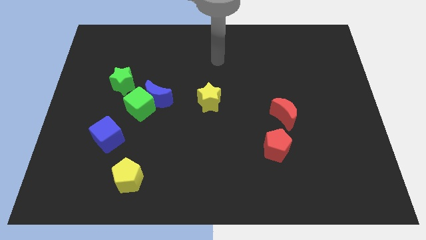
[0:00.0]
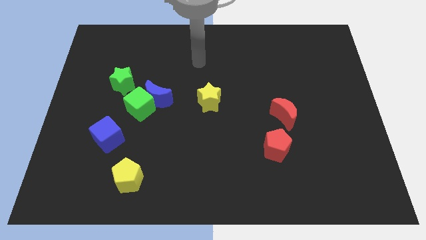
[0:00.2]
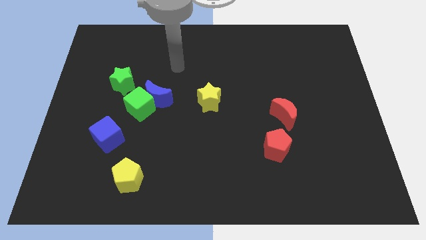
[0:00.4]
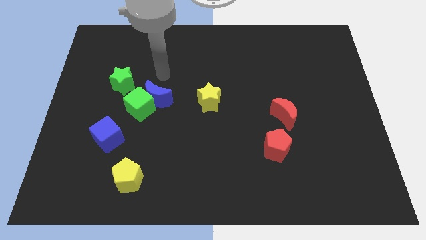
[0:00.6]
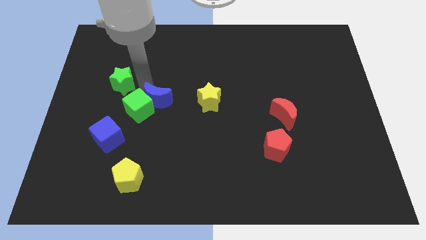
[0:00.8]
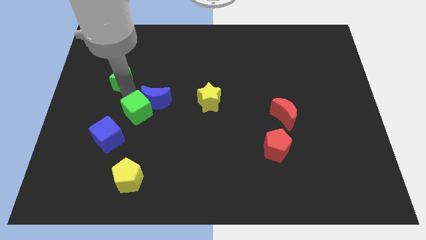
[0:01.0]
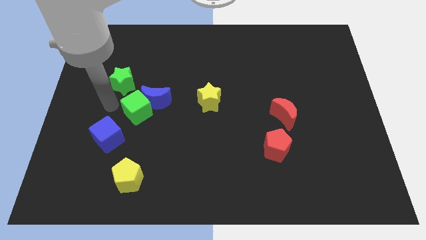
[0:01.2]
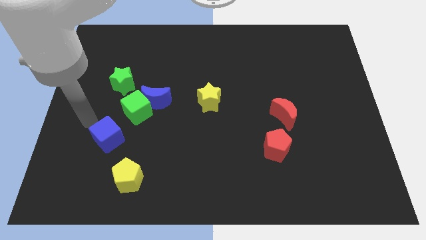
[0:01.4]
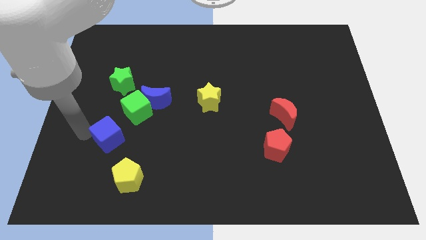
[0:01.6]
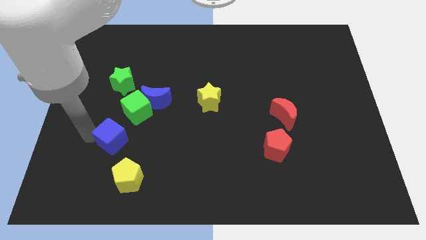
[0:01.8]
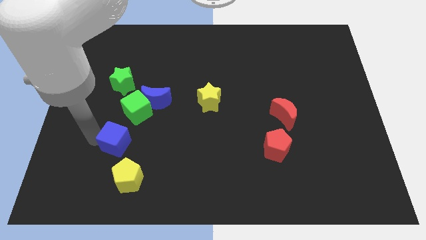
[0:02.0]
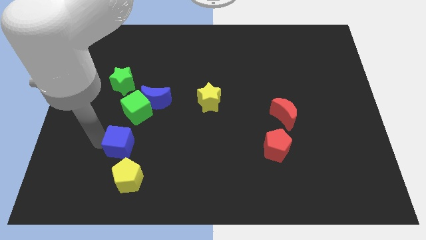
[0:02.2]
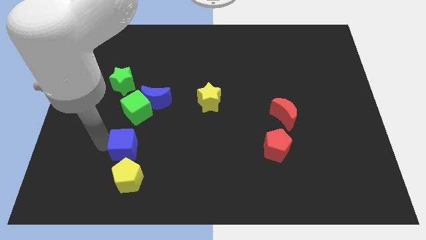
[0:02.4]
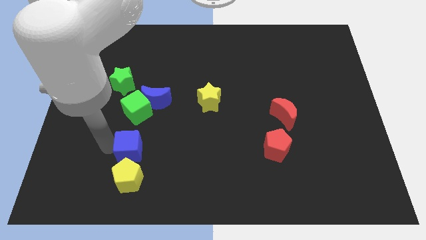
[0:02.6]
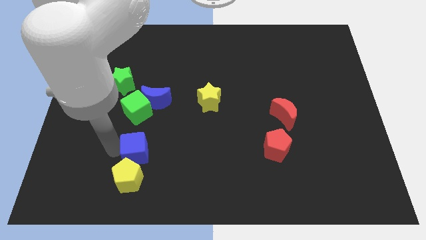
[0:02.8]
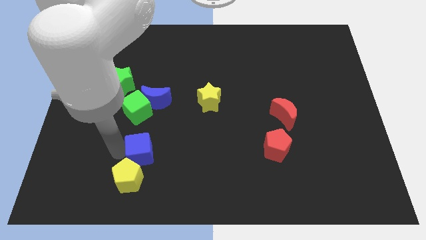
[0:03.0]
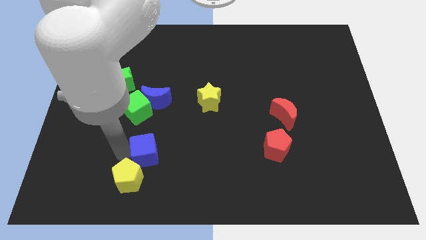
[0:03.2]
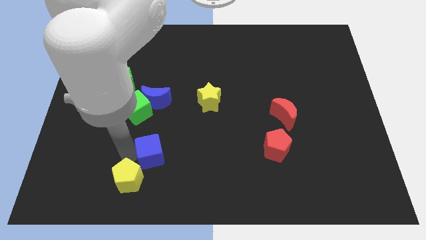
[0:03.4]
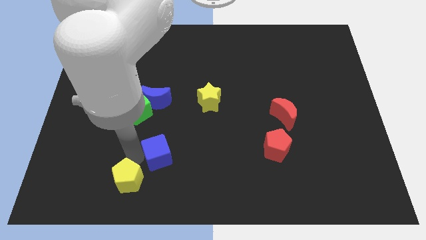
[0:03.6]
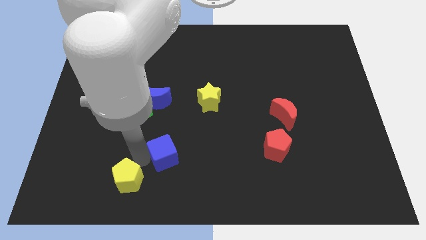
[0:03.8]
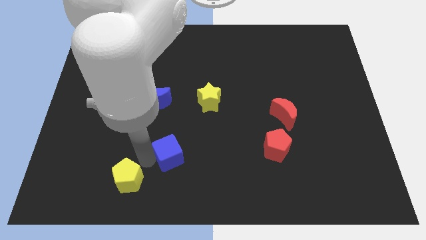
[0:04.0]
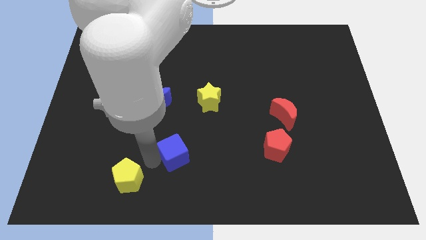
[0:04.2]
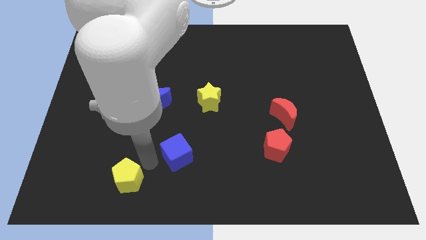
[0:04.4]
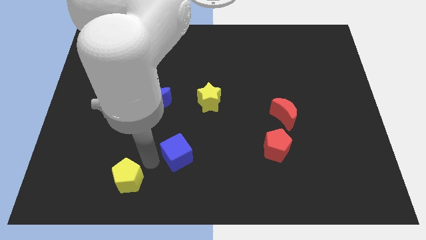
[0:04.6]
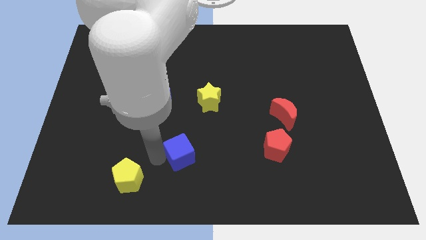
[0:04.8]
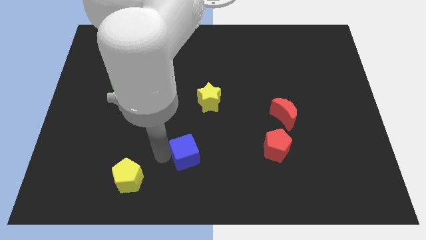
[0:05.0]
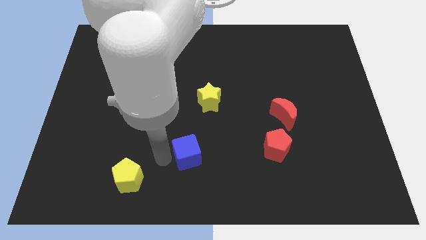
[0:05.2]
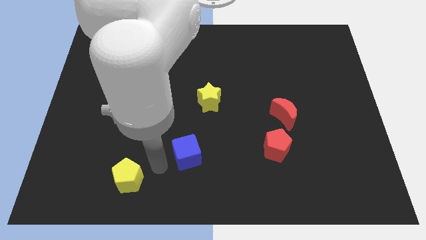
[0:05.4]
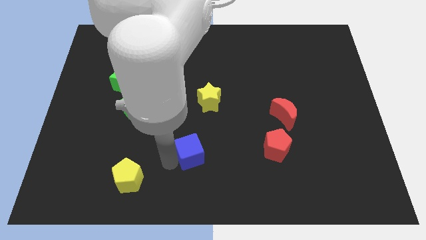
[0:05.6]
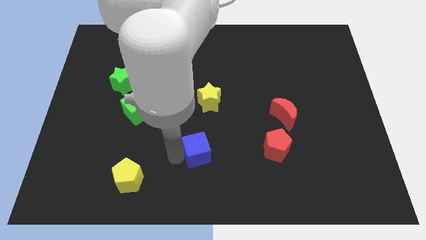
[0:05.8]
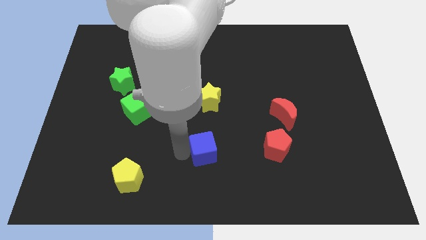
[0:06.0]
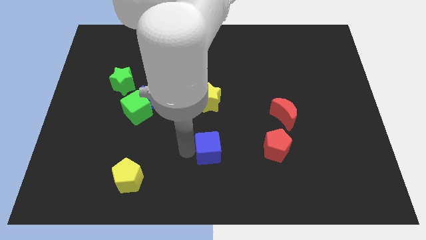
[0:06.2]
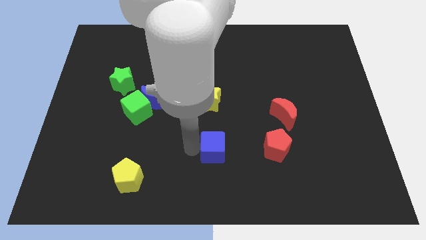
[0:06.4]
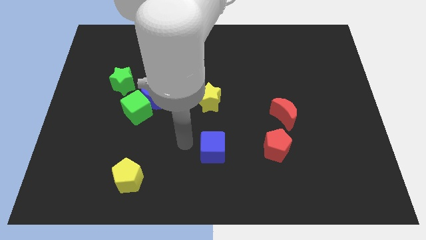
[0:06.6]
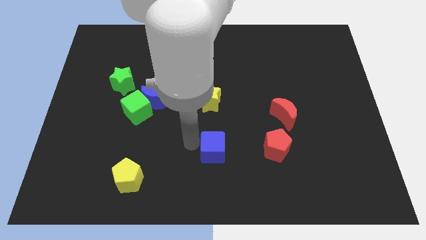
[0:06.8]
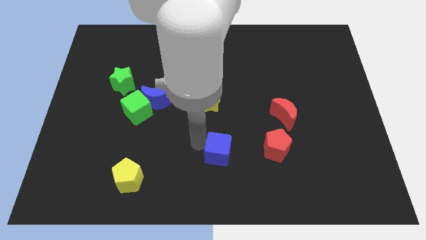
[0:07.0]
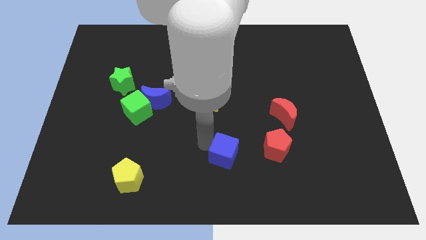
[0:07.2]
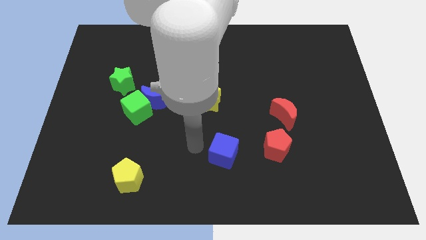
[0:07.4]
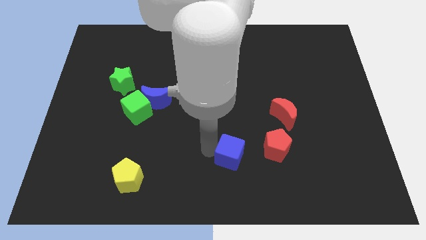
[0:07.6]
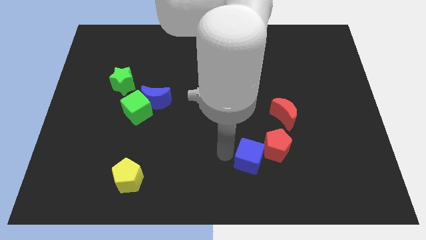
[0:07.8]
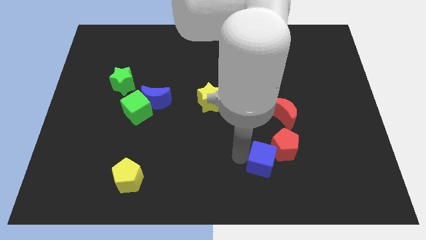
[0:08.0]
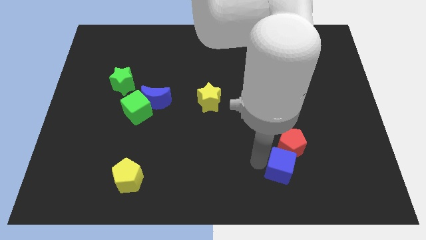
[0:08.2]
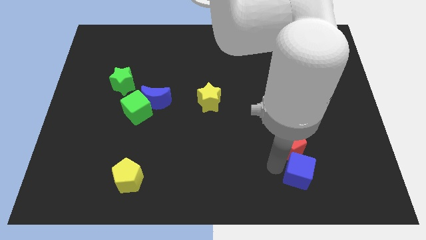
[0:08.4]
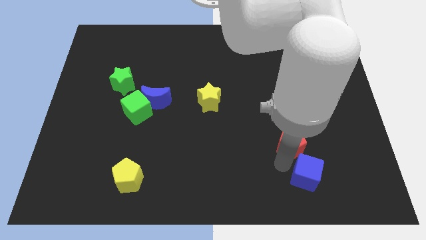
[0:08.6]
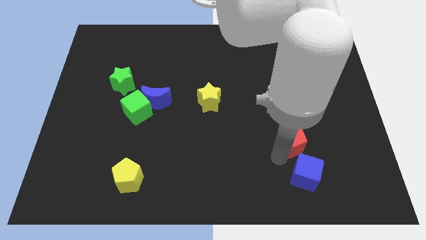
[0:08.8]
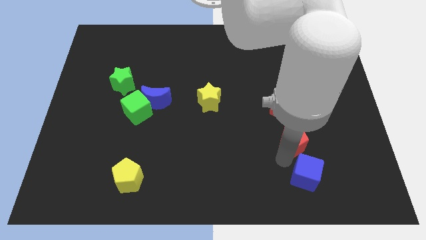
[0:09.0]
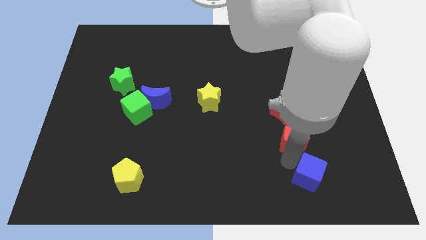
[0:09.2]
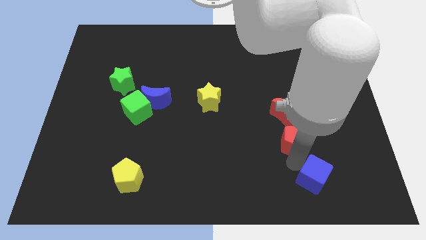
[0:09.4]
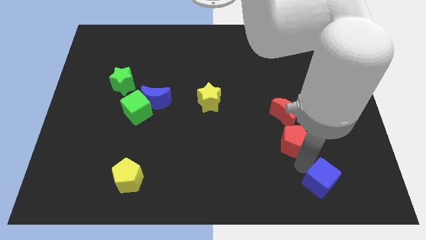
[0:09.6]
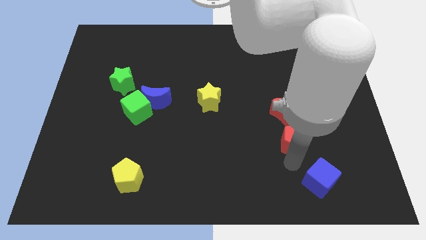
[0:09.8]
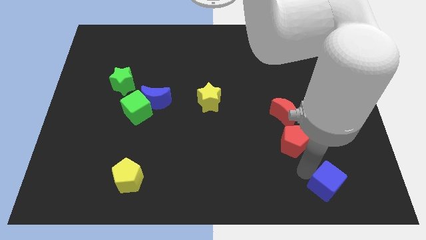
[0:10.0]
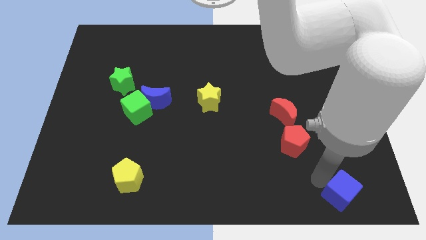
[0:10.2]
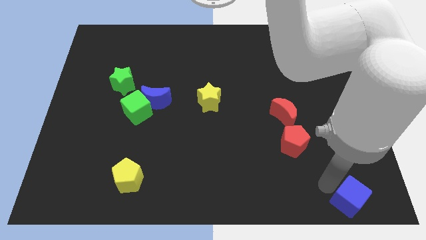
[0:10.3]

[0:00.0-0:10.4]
push the blue cube to the lower right corner

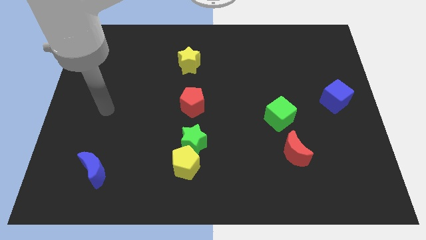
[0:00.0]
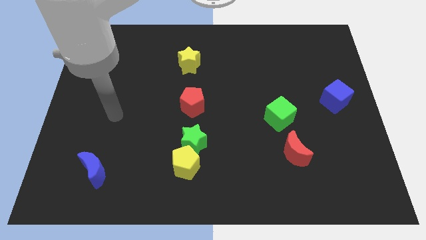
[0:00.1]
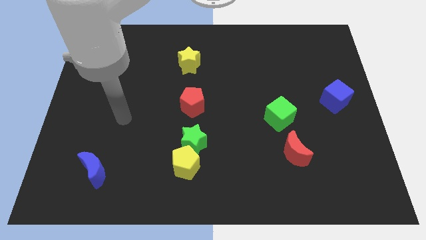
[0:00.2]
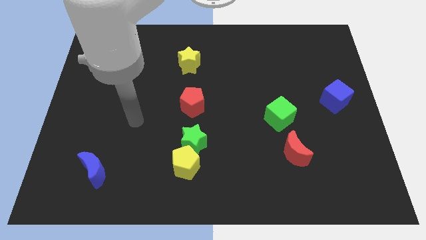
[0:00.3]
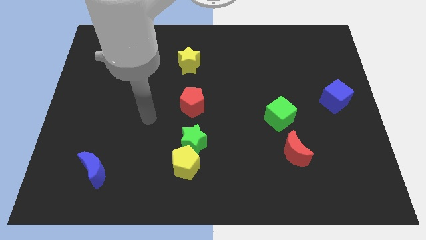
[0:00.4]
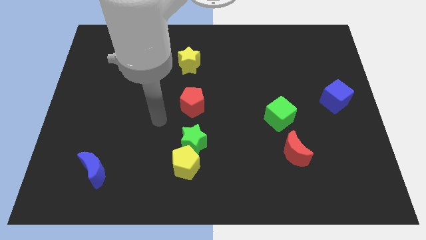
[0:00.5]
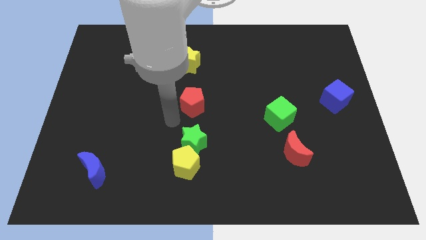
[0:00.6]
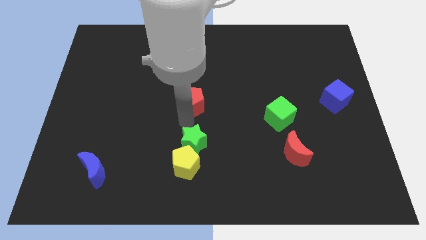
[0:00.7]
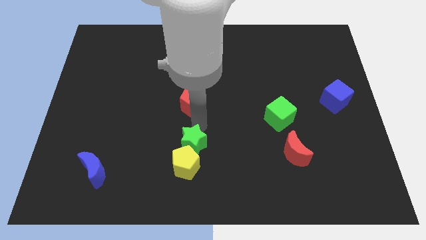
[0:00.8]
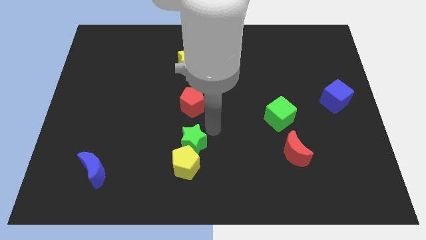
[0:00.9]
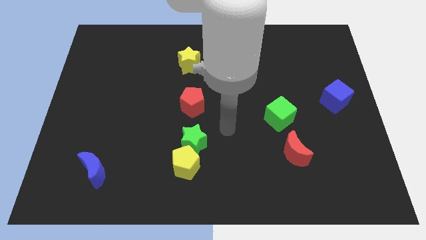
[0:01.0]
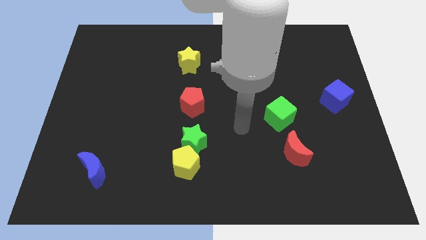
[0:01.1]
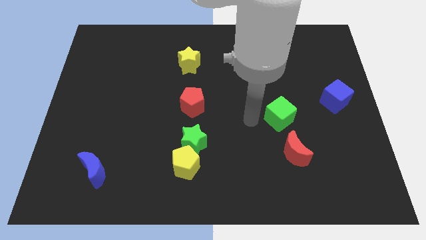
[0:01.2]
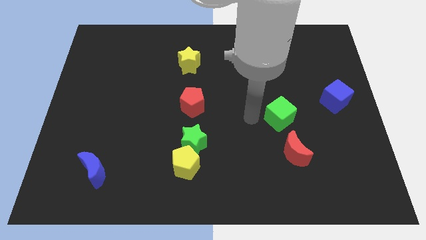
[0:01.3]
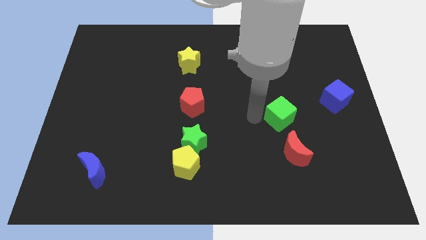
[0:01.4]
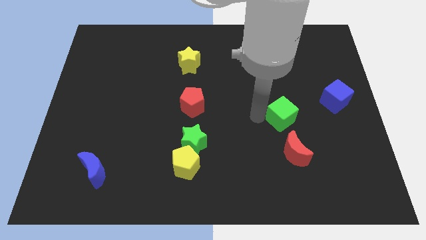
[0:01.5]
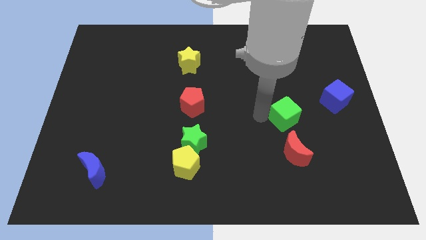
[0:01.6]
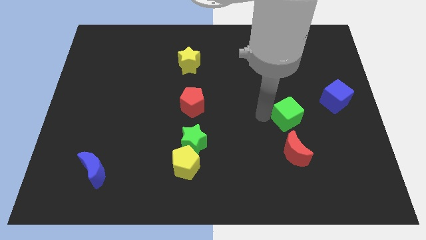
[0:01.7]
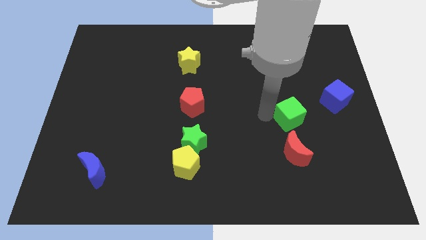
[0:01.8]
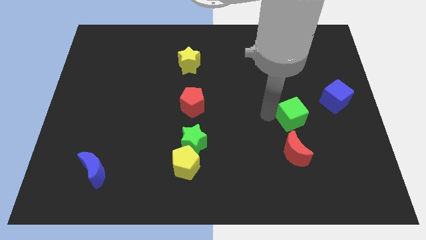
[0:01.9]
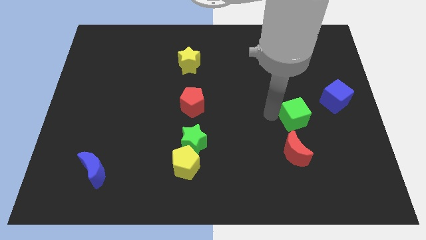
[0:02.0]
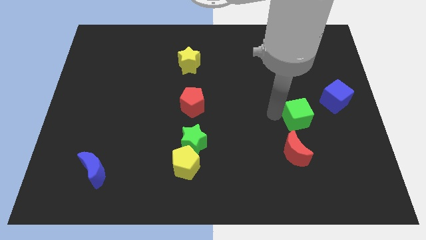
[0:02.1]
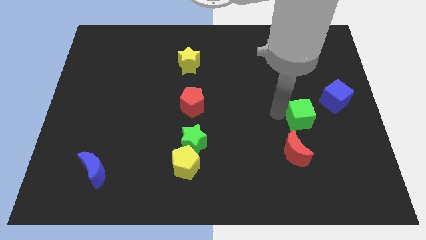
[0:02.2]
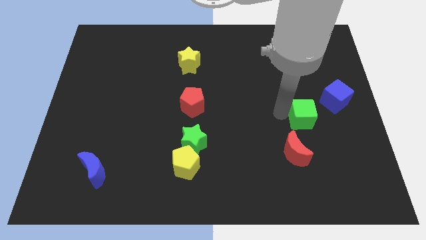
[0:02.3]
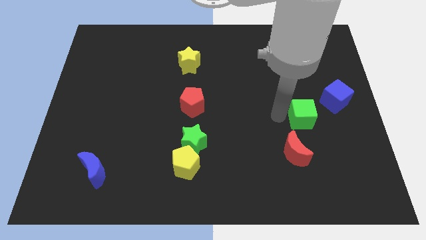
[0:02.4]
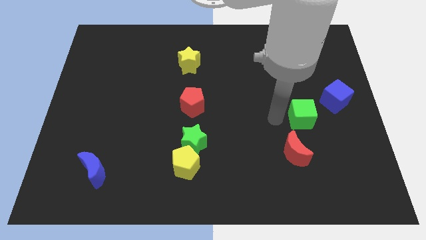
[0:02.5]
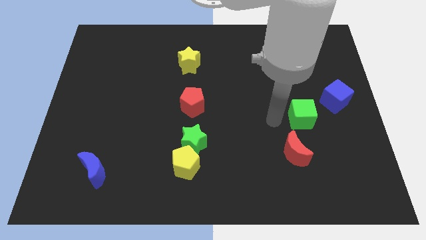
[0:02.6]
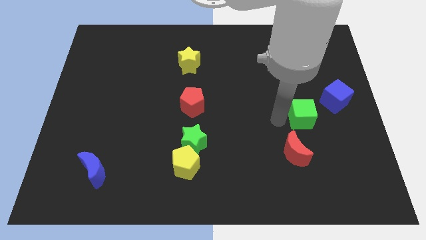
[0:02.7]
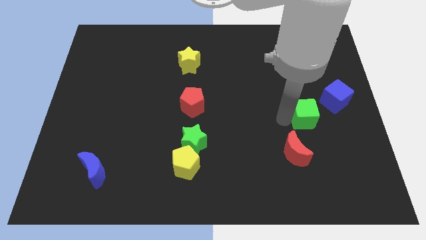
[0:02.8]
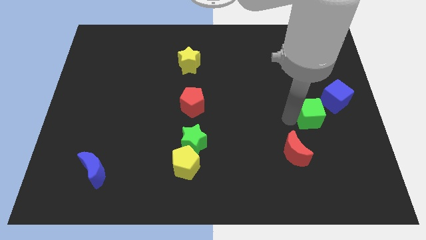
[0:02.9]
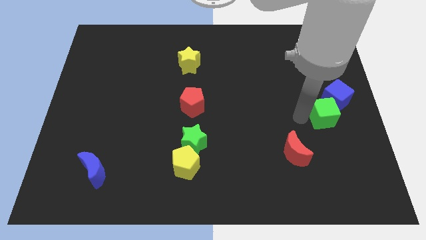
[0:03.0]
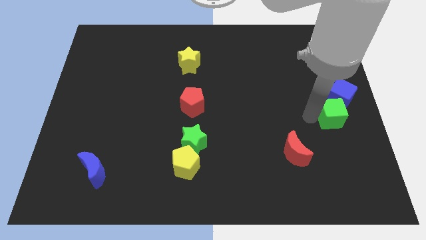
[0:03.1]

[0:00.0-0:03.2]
move the green cube to the right side of the board

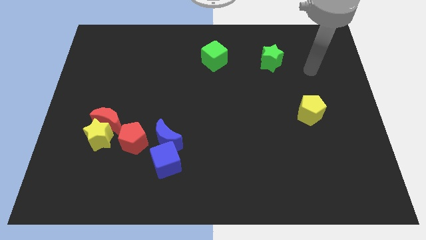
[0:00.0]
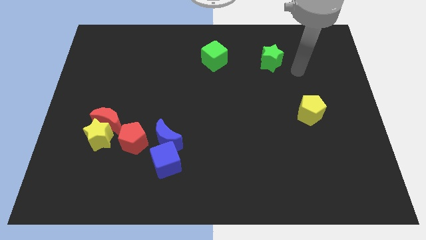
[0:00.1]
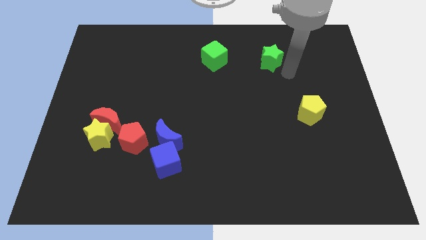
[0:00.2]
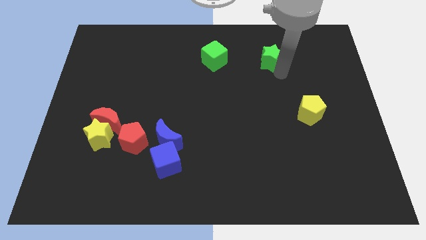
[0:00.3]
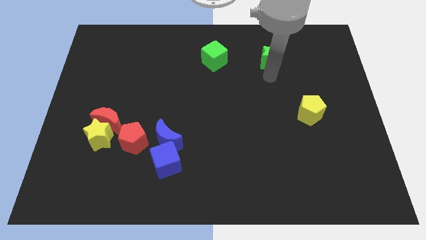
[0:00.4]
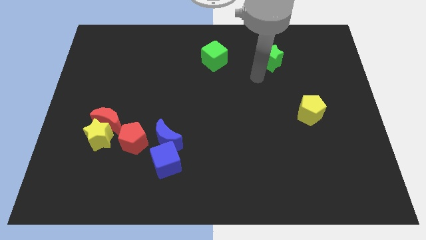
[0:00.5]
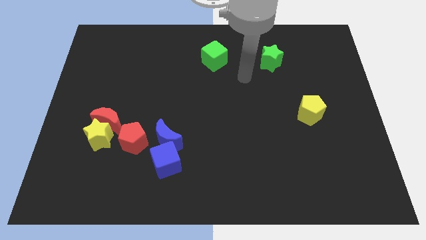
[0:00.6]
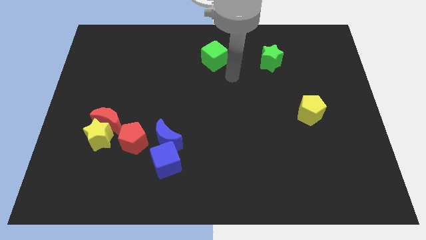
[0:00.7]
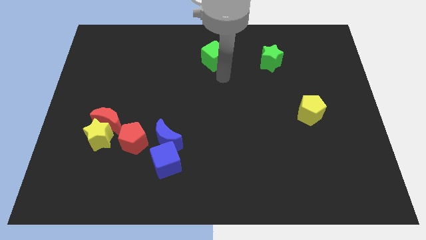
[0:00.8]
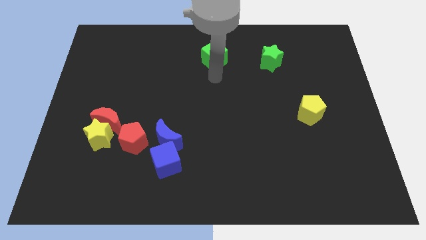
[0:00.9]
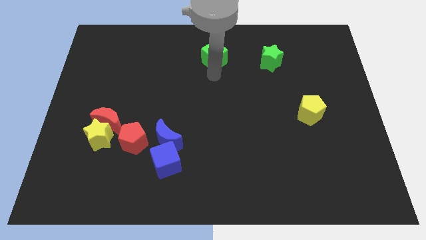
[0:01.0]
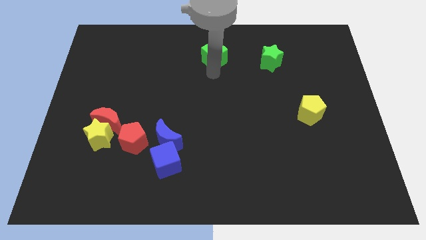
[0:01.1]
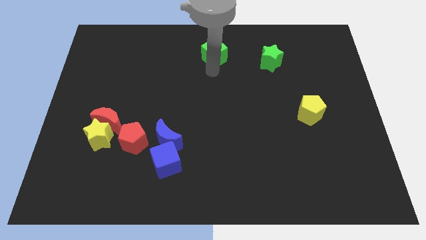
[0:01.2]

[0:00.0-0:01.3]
put the green cube to the top
